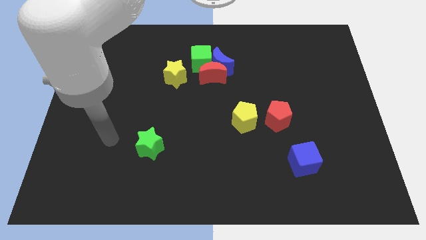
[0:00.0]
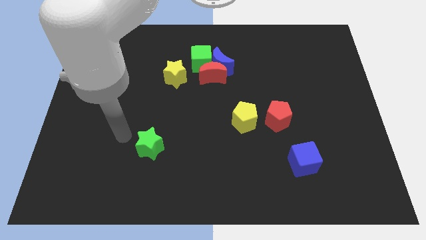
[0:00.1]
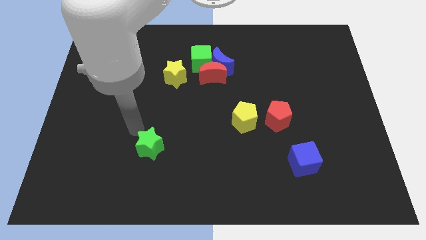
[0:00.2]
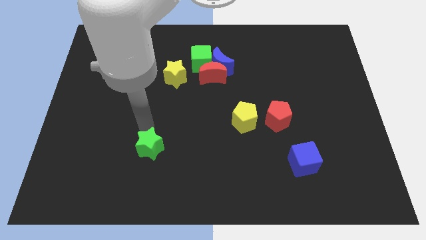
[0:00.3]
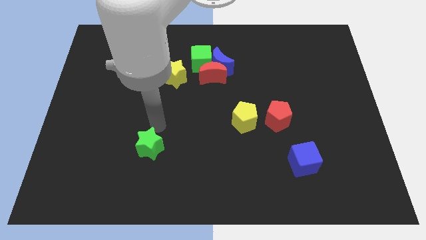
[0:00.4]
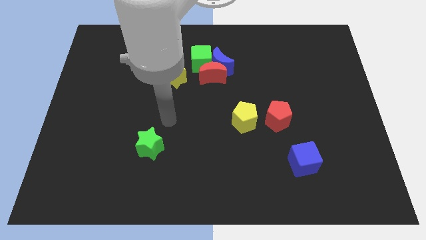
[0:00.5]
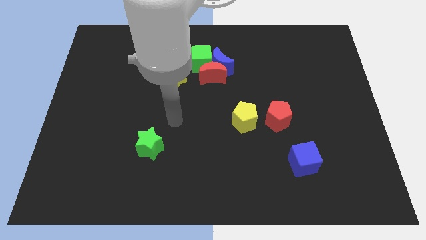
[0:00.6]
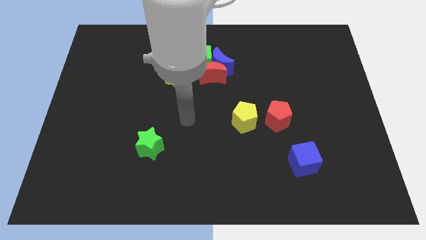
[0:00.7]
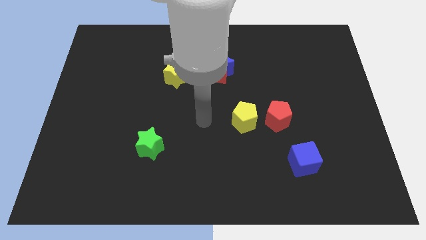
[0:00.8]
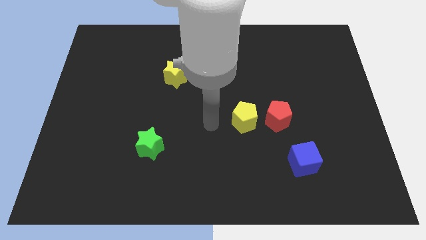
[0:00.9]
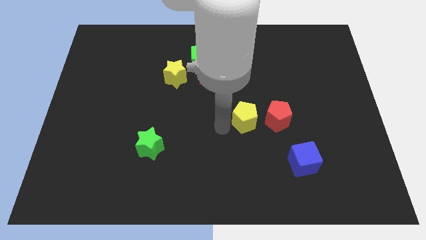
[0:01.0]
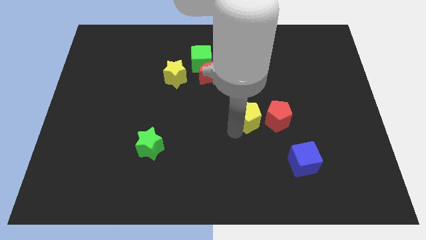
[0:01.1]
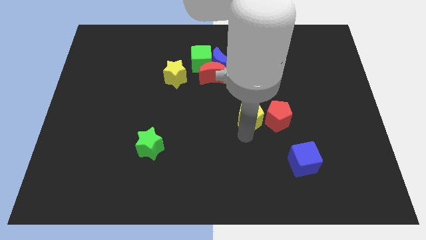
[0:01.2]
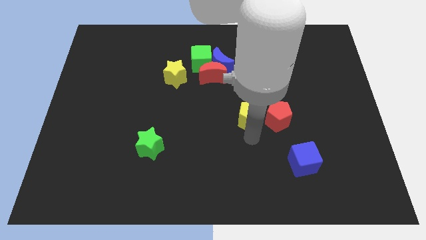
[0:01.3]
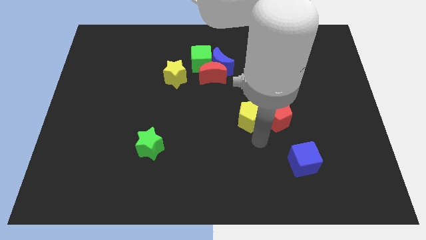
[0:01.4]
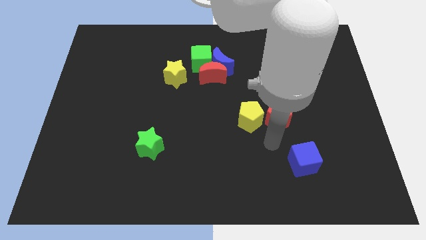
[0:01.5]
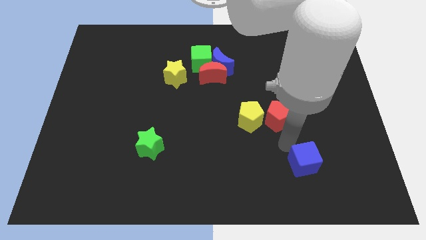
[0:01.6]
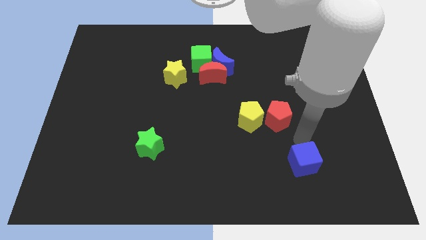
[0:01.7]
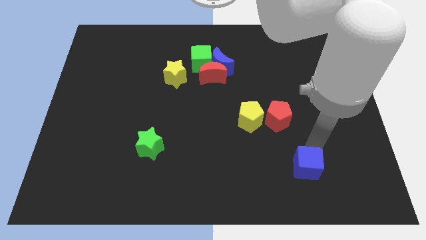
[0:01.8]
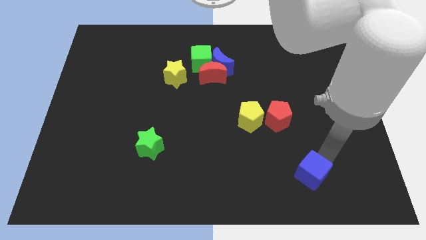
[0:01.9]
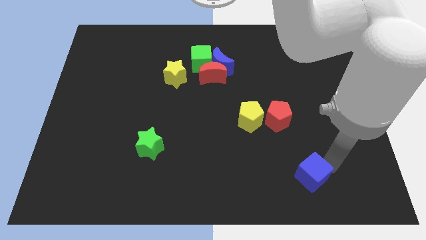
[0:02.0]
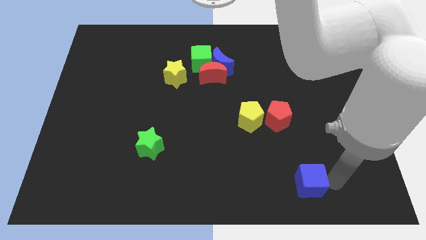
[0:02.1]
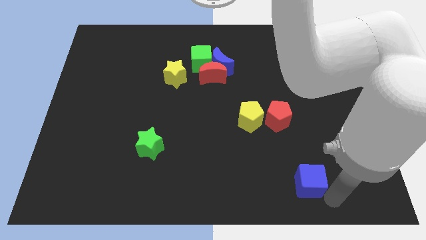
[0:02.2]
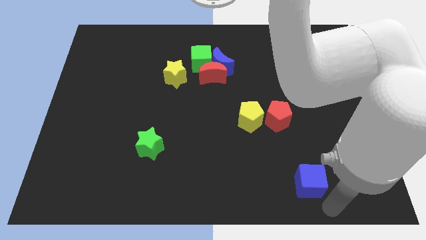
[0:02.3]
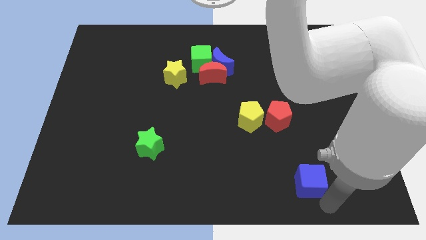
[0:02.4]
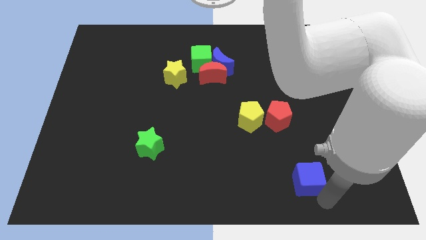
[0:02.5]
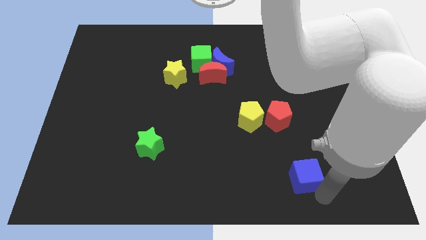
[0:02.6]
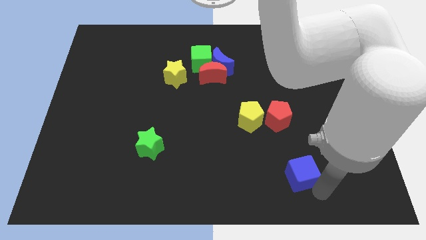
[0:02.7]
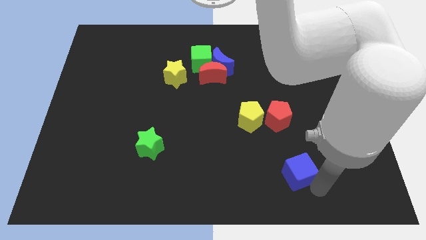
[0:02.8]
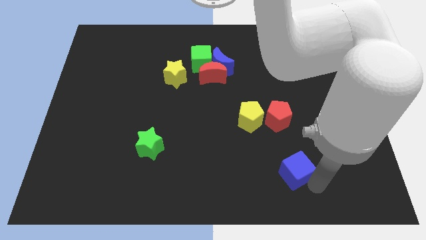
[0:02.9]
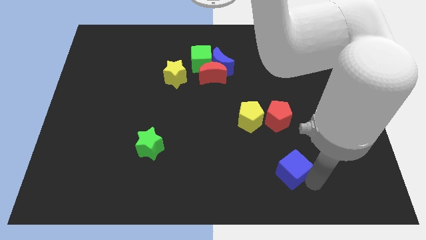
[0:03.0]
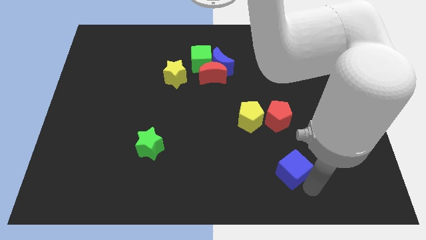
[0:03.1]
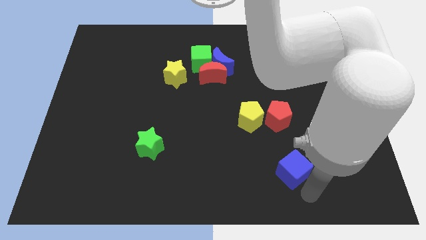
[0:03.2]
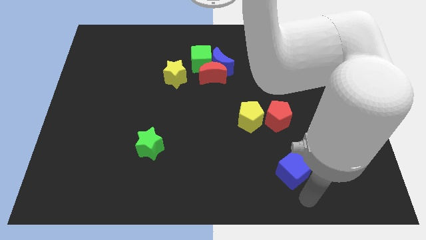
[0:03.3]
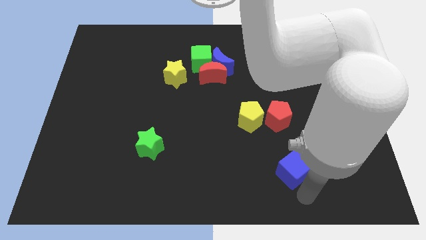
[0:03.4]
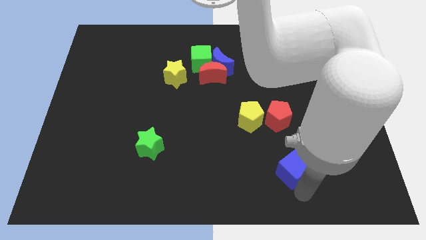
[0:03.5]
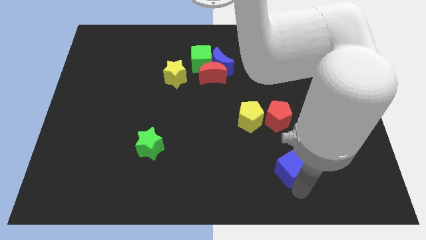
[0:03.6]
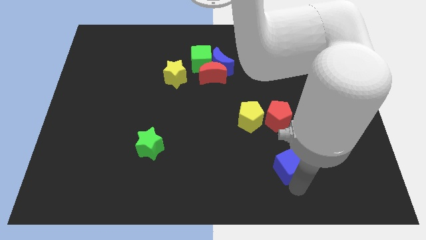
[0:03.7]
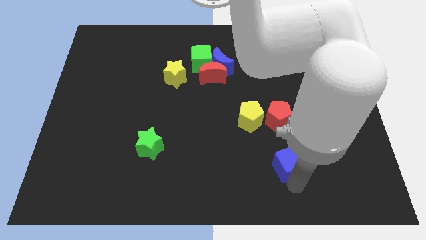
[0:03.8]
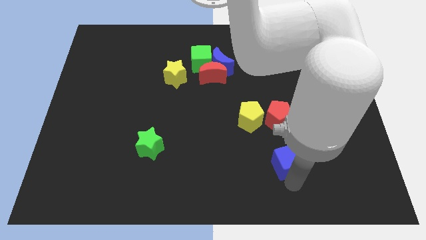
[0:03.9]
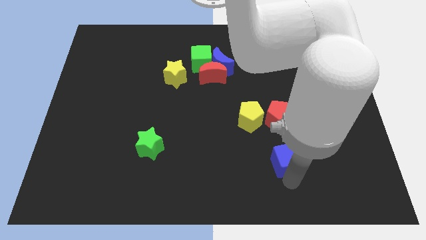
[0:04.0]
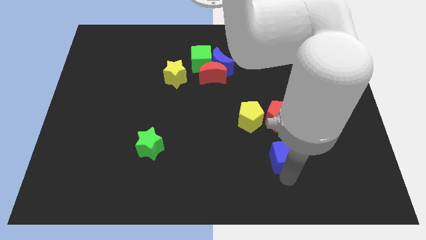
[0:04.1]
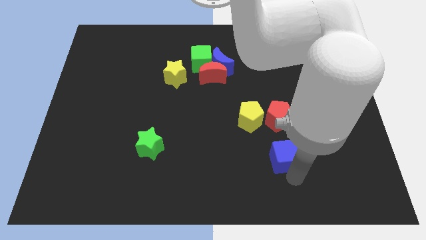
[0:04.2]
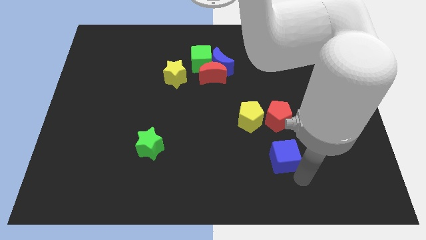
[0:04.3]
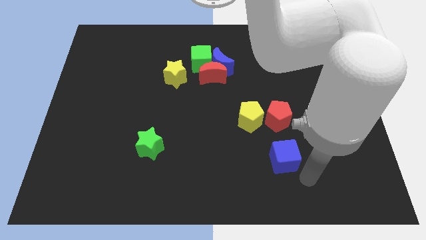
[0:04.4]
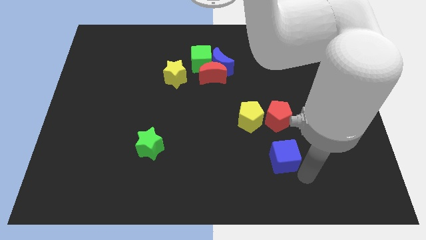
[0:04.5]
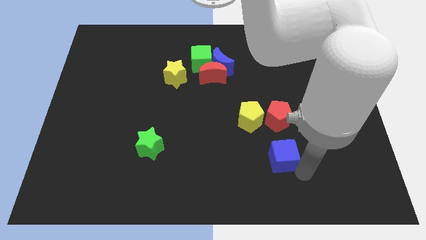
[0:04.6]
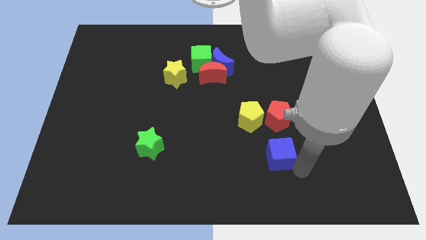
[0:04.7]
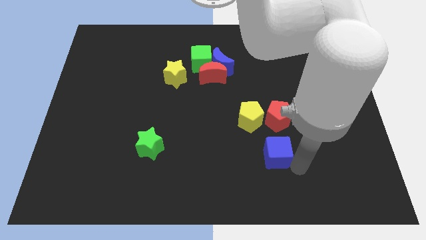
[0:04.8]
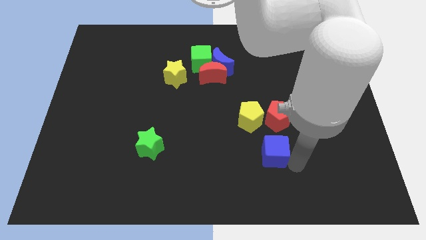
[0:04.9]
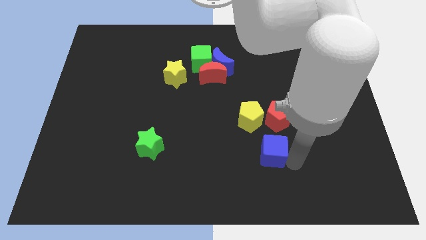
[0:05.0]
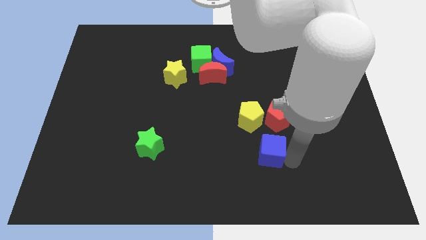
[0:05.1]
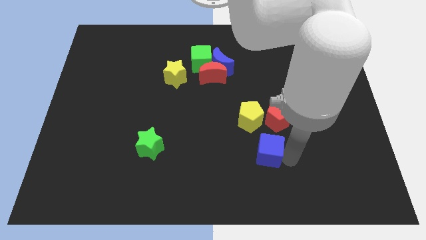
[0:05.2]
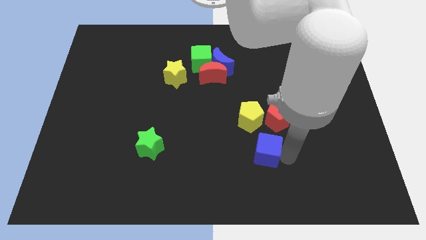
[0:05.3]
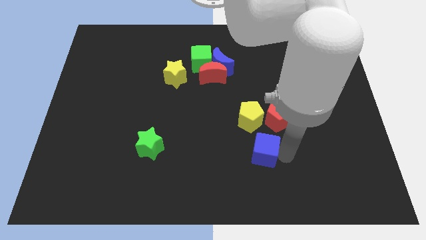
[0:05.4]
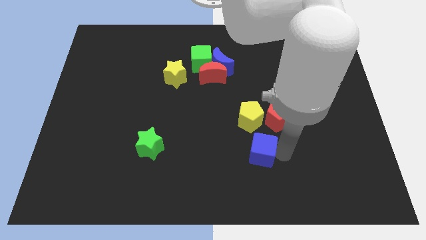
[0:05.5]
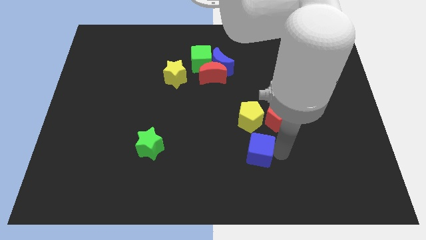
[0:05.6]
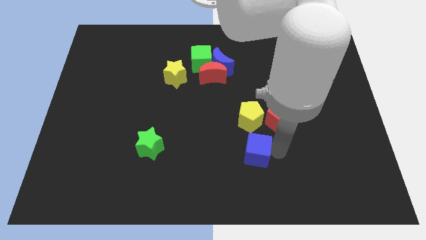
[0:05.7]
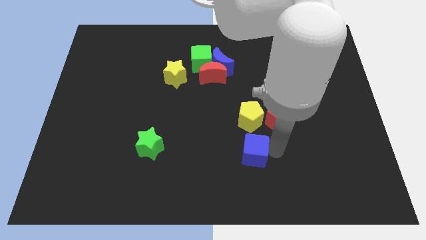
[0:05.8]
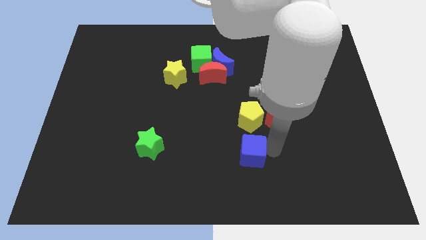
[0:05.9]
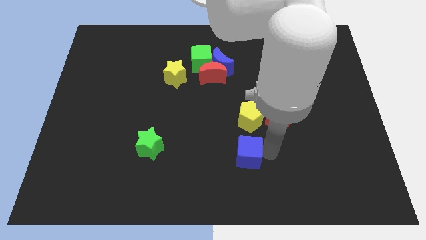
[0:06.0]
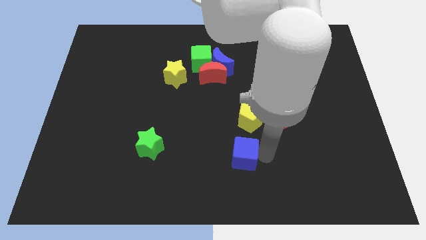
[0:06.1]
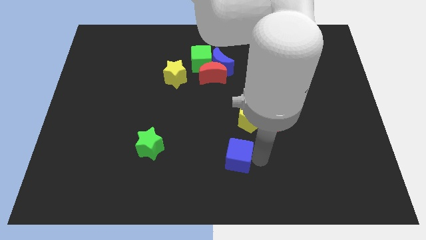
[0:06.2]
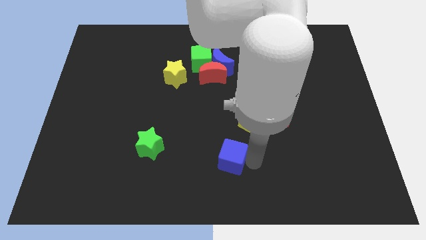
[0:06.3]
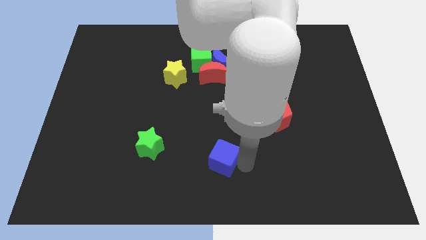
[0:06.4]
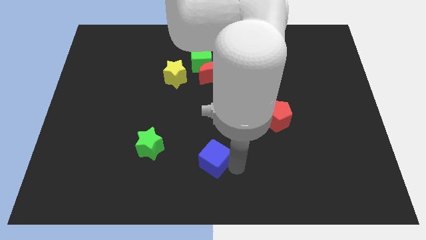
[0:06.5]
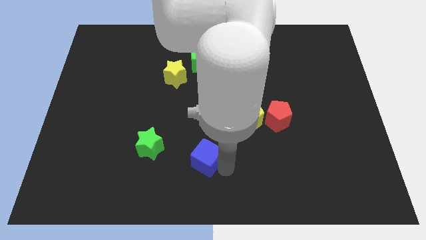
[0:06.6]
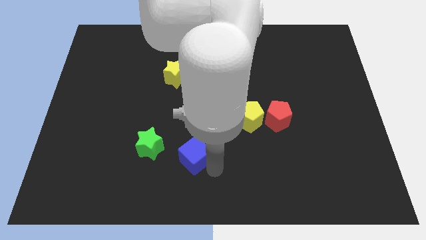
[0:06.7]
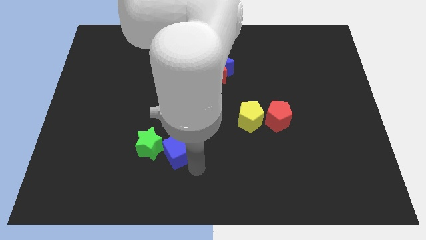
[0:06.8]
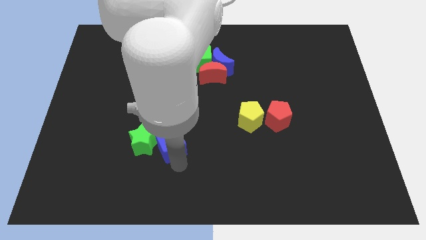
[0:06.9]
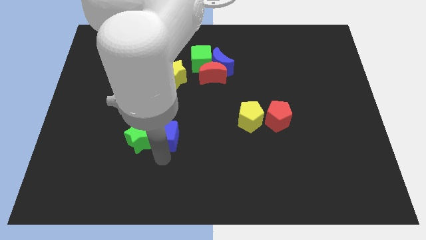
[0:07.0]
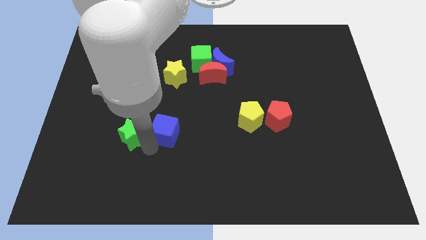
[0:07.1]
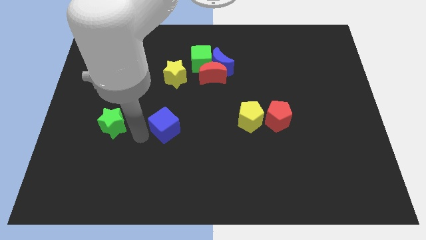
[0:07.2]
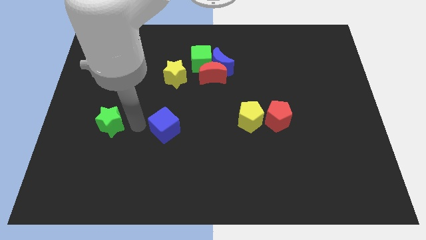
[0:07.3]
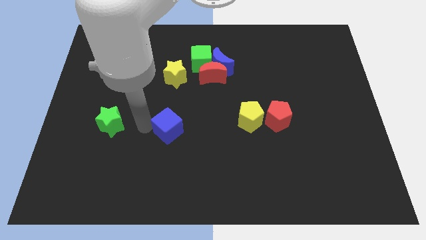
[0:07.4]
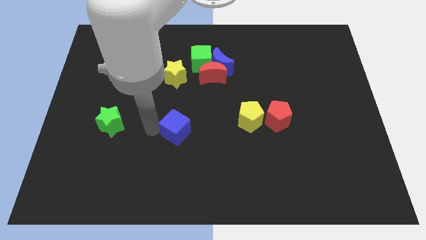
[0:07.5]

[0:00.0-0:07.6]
move the blue cube to the middle
